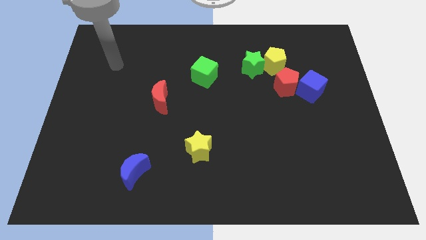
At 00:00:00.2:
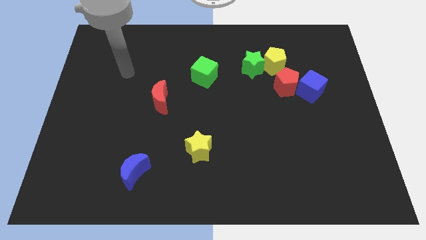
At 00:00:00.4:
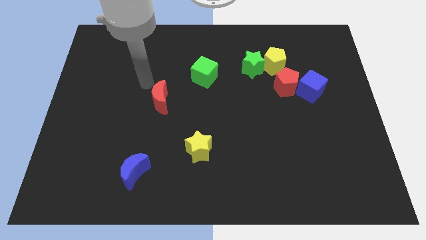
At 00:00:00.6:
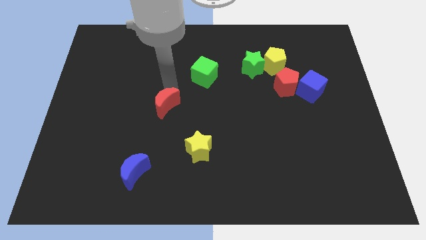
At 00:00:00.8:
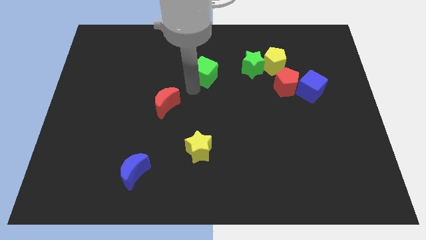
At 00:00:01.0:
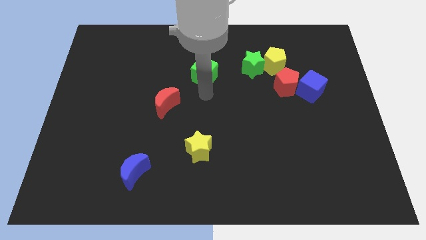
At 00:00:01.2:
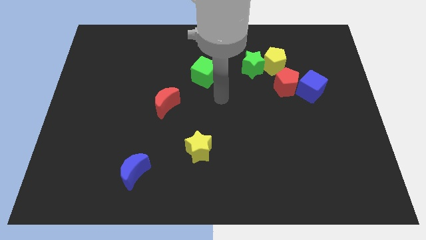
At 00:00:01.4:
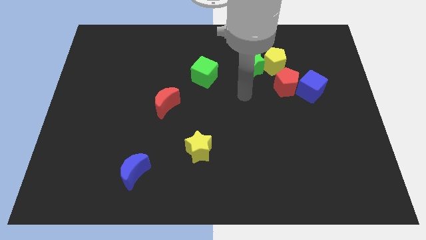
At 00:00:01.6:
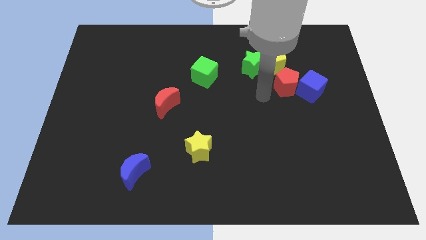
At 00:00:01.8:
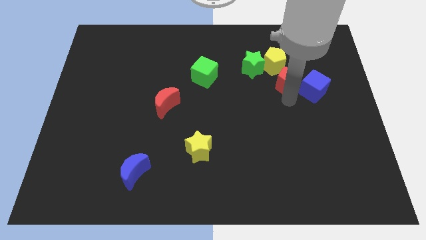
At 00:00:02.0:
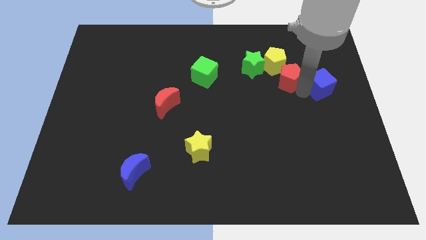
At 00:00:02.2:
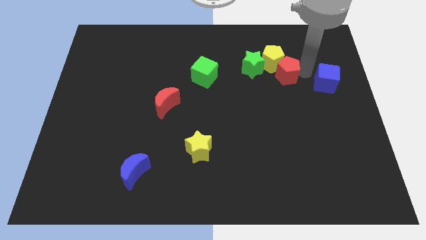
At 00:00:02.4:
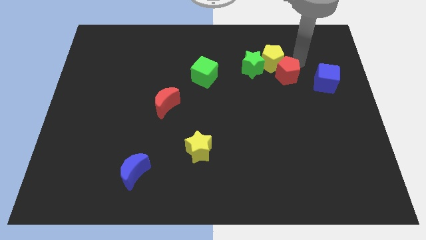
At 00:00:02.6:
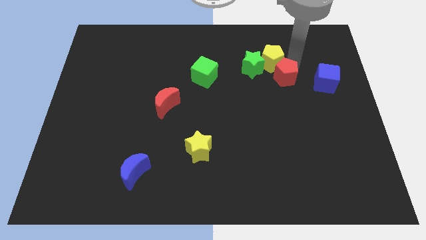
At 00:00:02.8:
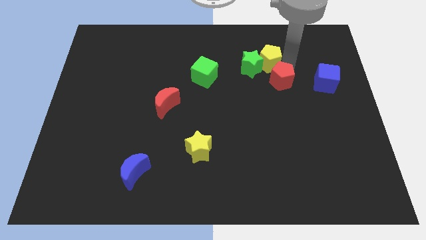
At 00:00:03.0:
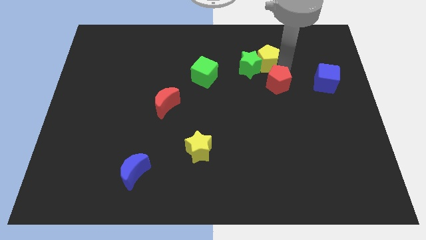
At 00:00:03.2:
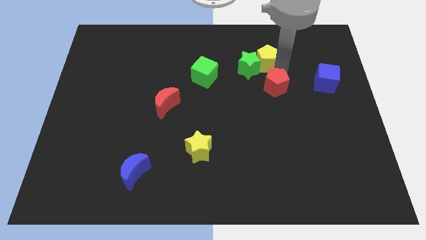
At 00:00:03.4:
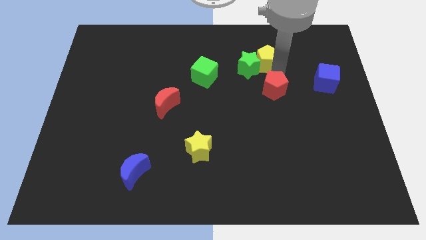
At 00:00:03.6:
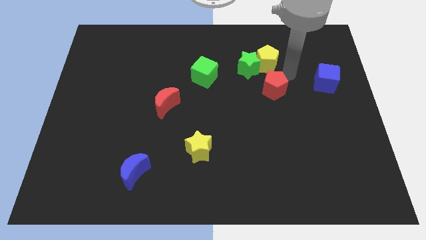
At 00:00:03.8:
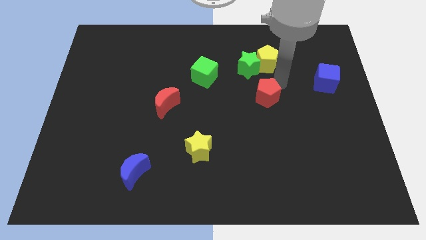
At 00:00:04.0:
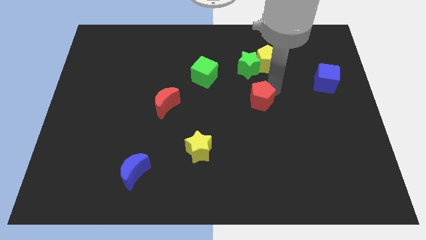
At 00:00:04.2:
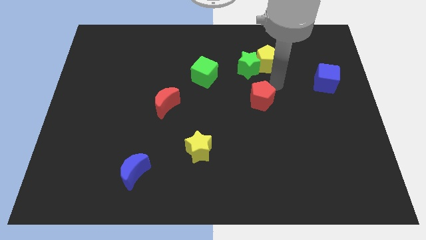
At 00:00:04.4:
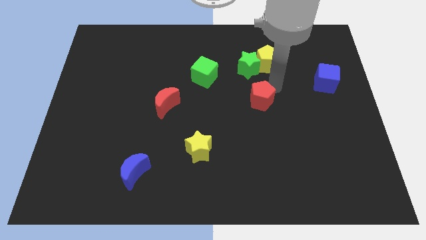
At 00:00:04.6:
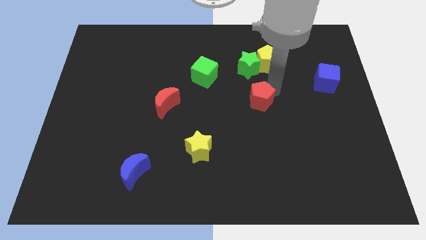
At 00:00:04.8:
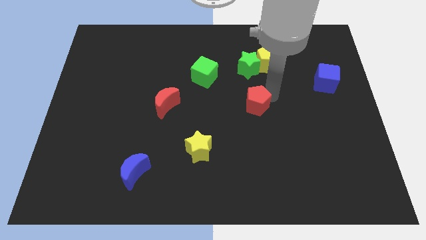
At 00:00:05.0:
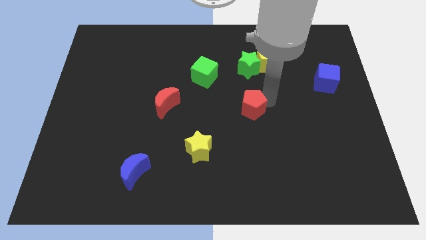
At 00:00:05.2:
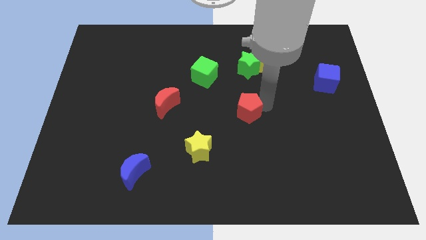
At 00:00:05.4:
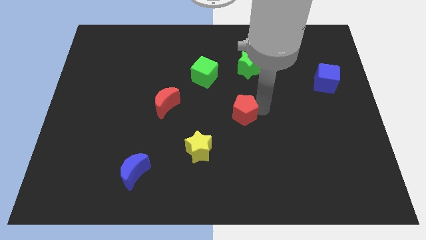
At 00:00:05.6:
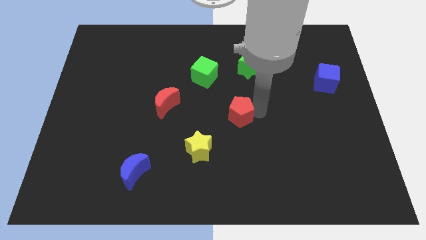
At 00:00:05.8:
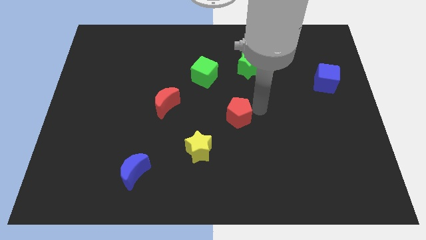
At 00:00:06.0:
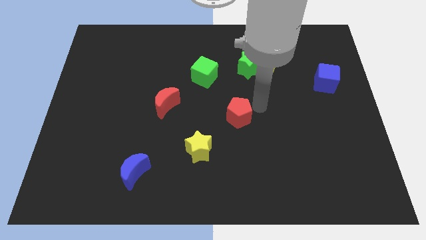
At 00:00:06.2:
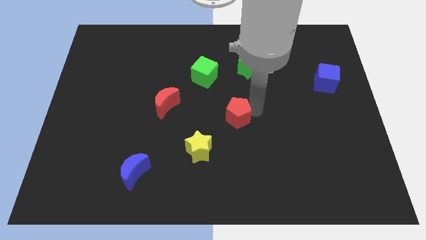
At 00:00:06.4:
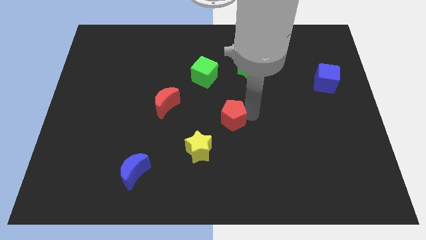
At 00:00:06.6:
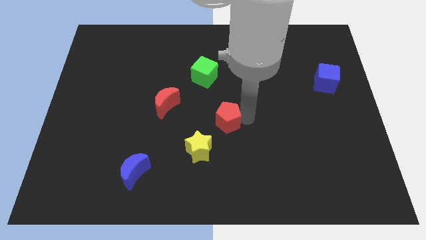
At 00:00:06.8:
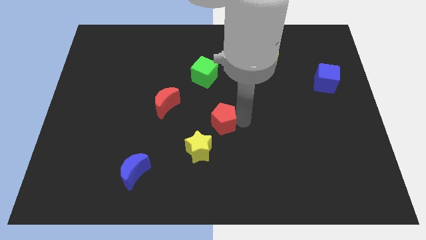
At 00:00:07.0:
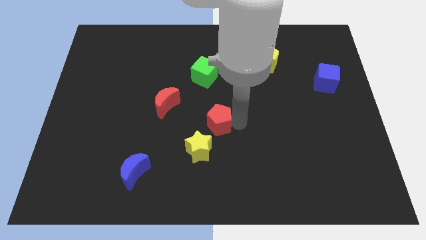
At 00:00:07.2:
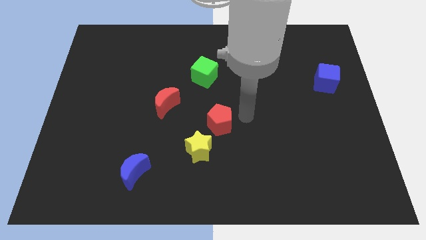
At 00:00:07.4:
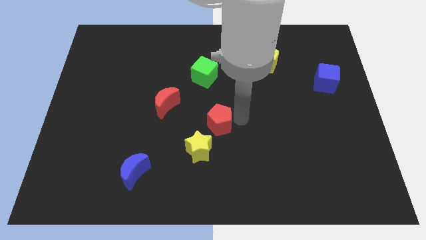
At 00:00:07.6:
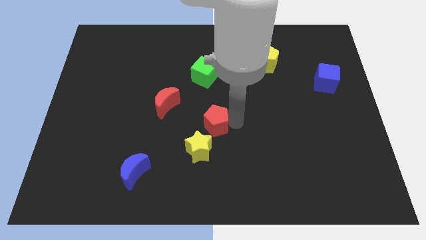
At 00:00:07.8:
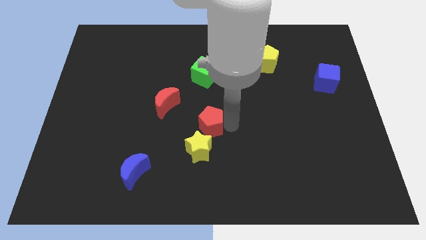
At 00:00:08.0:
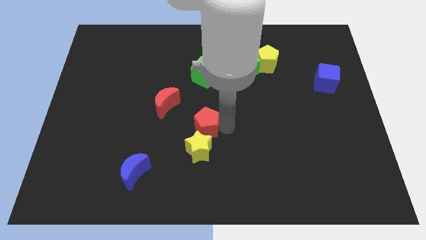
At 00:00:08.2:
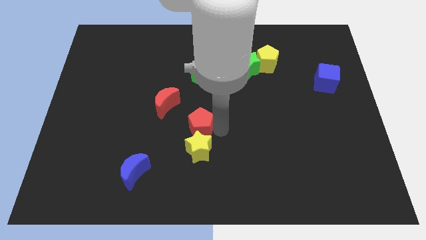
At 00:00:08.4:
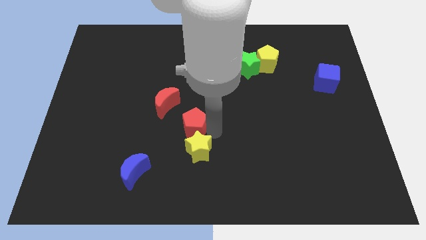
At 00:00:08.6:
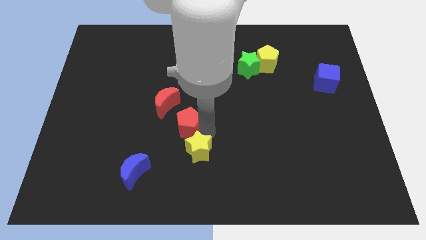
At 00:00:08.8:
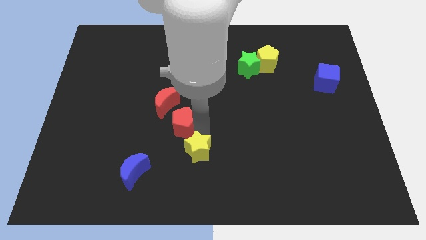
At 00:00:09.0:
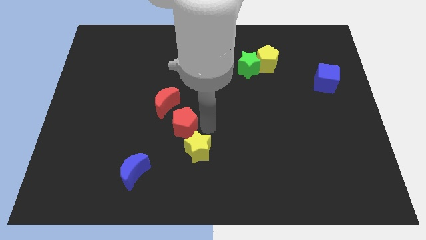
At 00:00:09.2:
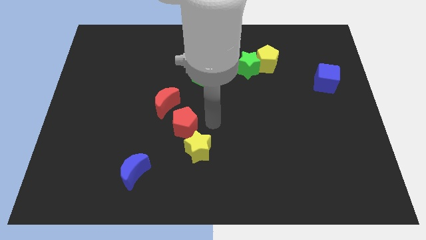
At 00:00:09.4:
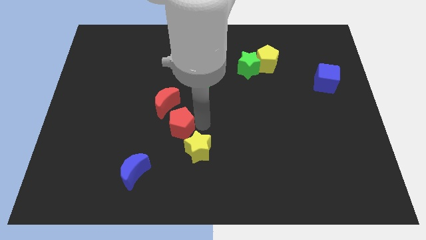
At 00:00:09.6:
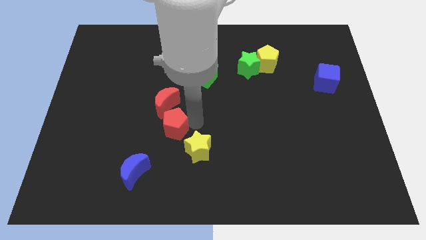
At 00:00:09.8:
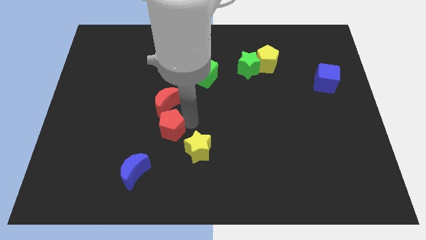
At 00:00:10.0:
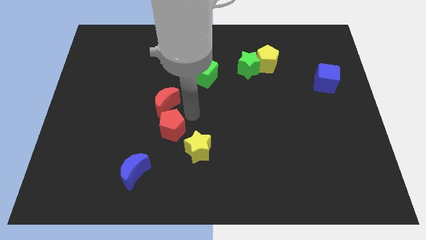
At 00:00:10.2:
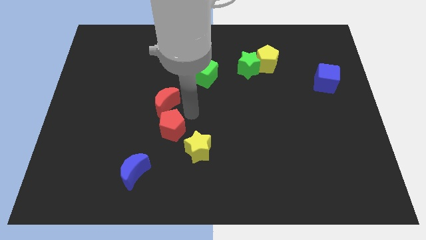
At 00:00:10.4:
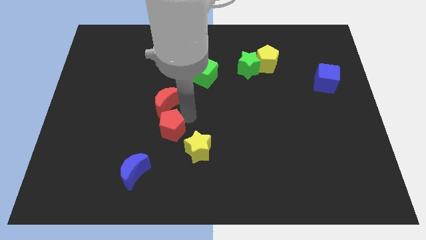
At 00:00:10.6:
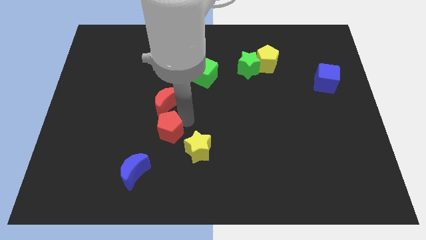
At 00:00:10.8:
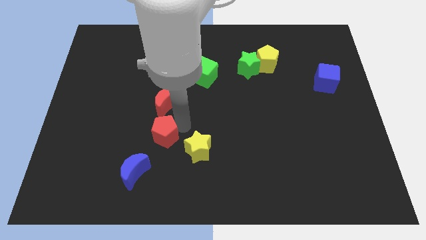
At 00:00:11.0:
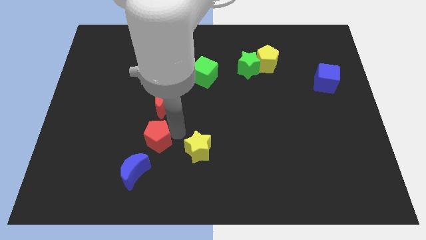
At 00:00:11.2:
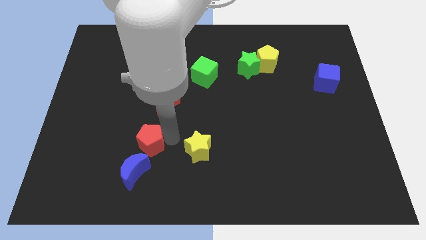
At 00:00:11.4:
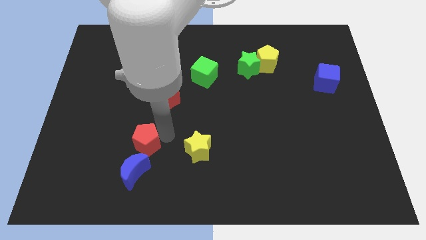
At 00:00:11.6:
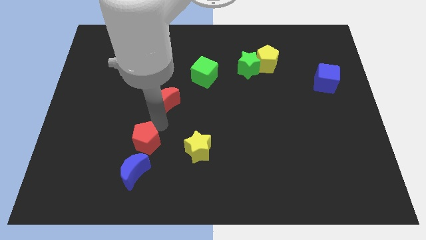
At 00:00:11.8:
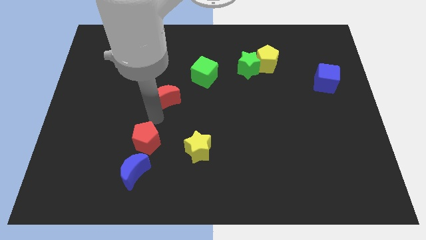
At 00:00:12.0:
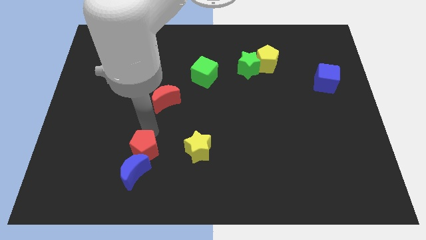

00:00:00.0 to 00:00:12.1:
slide the red pentagon next to the blue moon

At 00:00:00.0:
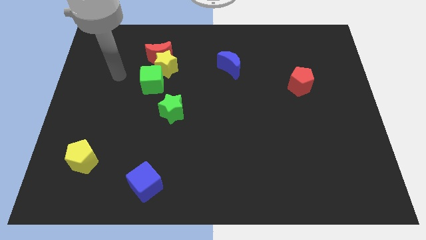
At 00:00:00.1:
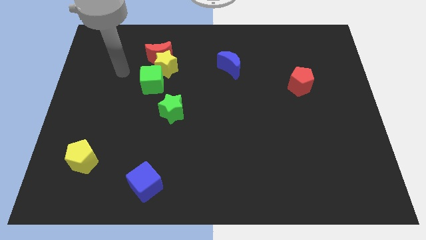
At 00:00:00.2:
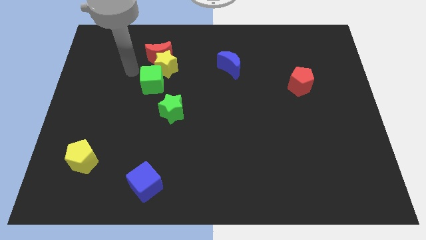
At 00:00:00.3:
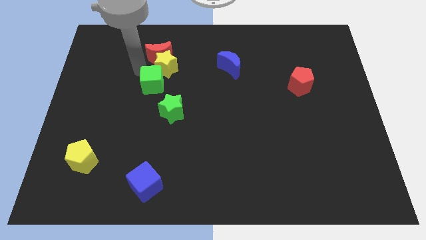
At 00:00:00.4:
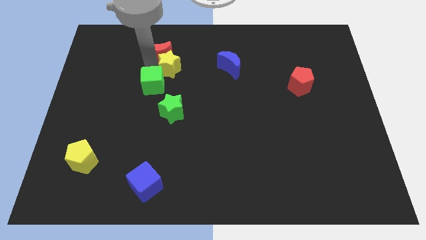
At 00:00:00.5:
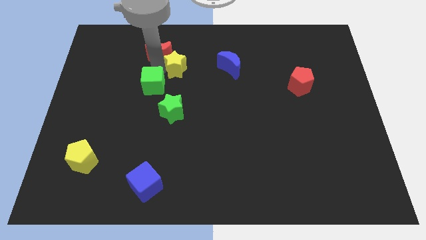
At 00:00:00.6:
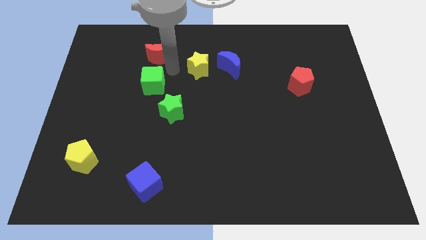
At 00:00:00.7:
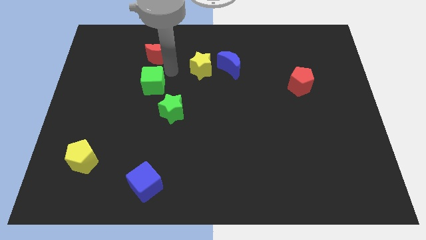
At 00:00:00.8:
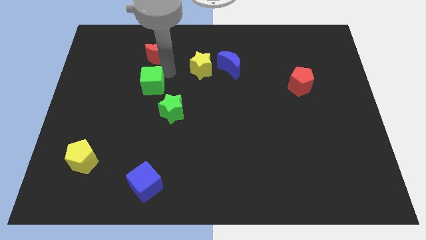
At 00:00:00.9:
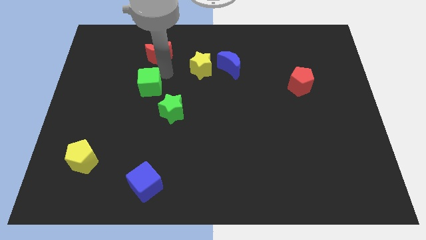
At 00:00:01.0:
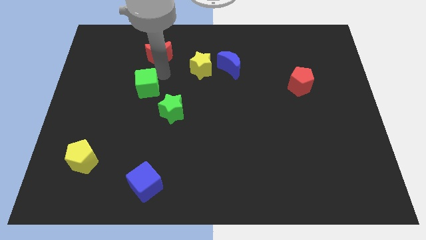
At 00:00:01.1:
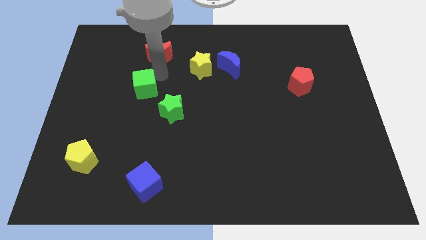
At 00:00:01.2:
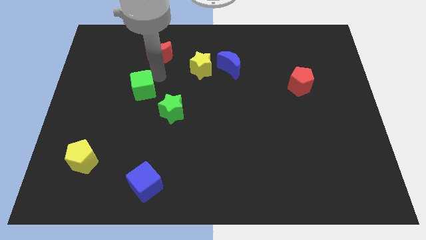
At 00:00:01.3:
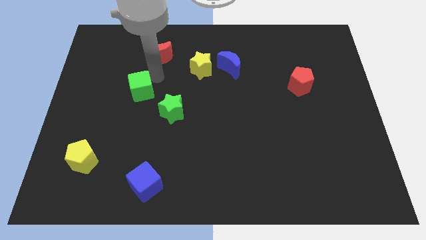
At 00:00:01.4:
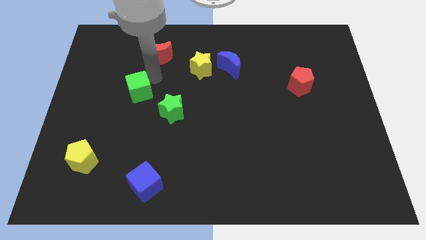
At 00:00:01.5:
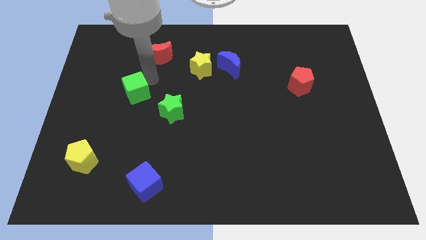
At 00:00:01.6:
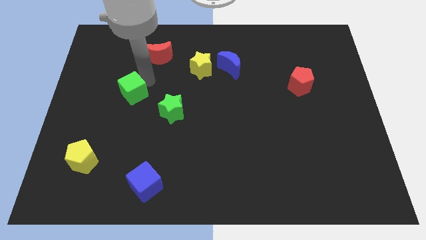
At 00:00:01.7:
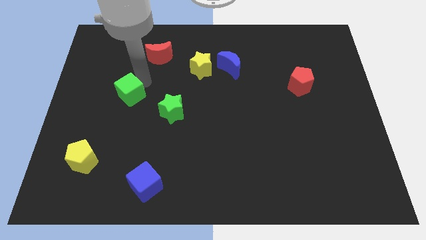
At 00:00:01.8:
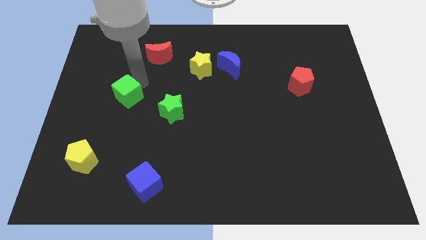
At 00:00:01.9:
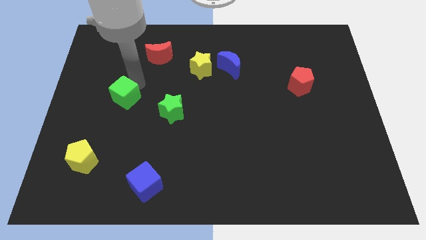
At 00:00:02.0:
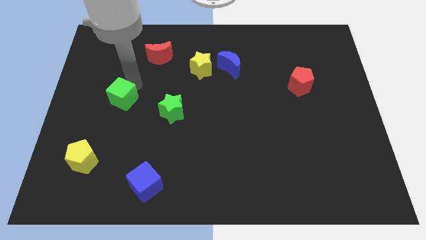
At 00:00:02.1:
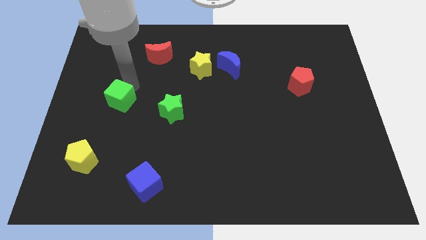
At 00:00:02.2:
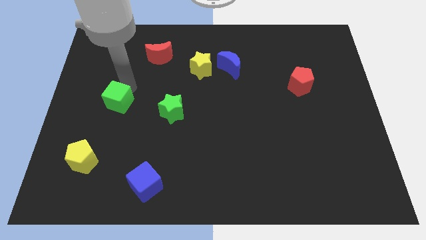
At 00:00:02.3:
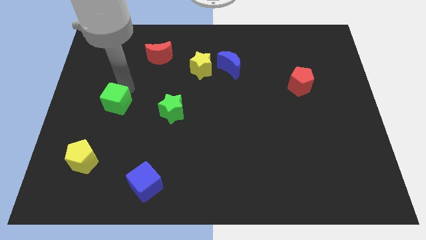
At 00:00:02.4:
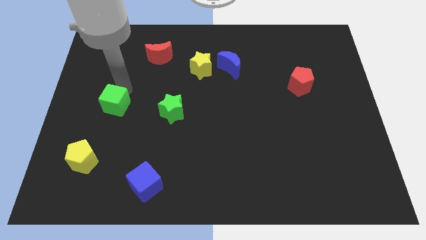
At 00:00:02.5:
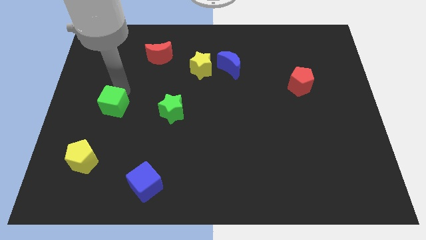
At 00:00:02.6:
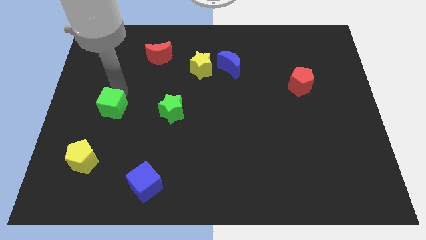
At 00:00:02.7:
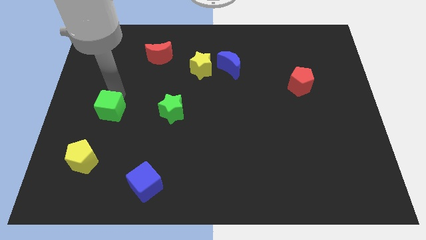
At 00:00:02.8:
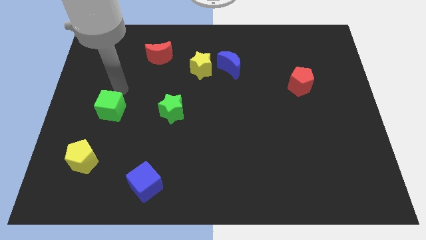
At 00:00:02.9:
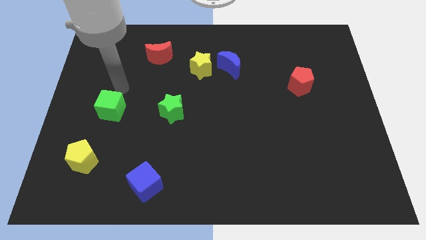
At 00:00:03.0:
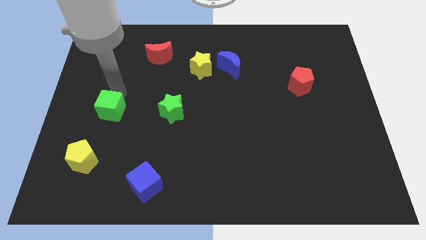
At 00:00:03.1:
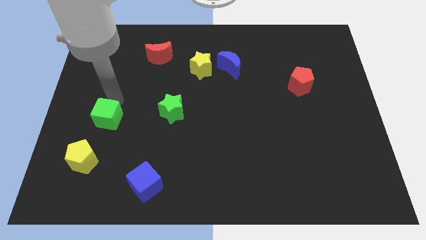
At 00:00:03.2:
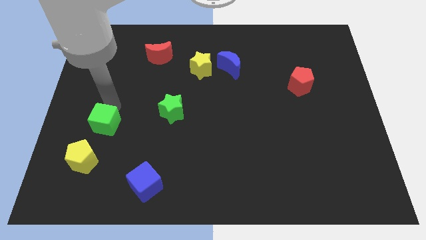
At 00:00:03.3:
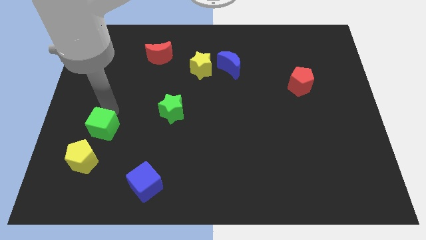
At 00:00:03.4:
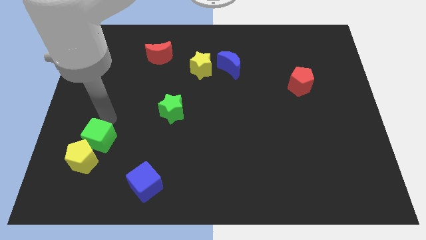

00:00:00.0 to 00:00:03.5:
slide the green cube close to the yellow pentagon
